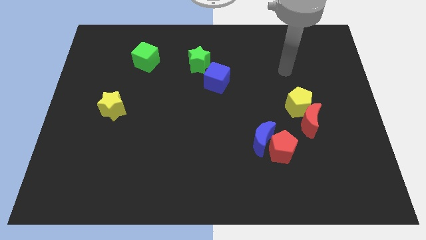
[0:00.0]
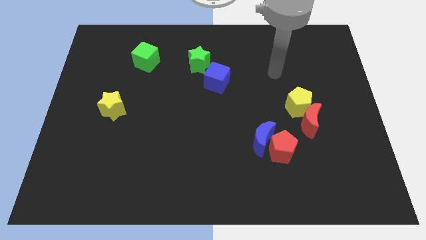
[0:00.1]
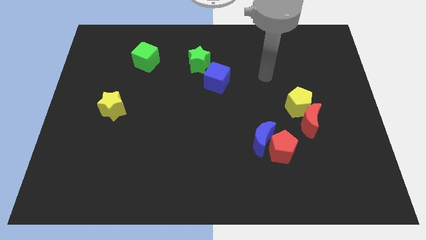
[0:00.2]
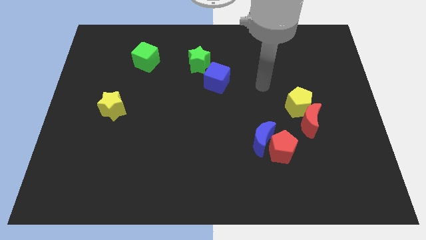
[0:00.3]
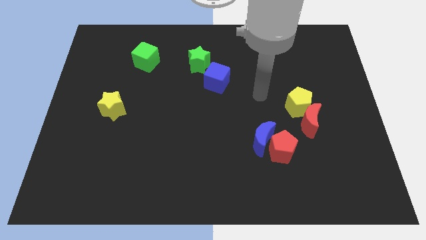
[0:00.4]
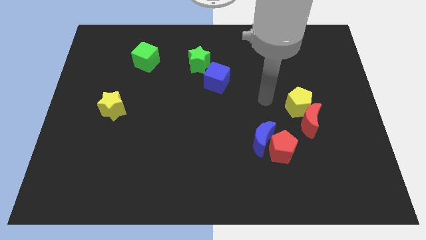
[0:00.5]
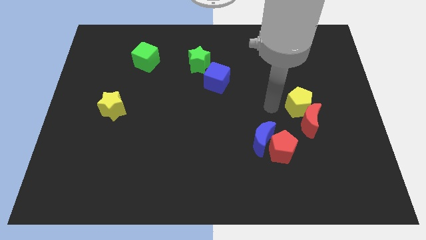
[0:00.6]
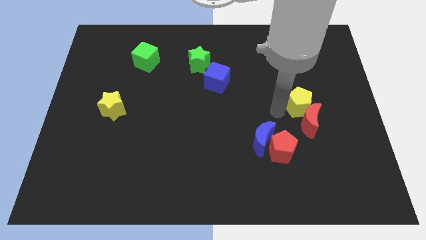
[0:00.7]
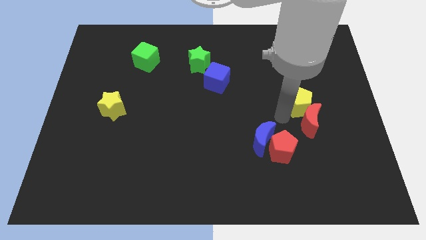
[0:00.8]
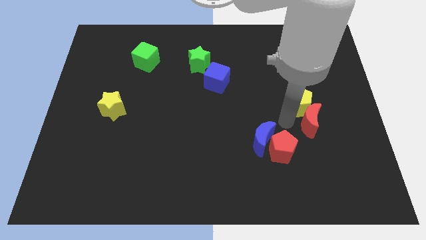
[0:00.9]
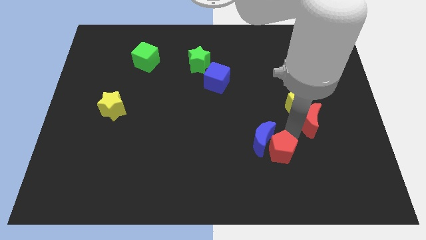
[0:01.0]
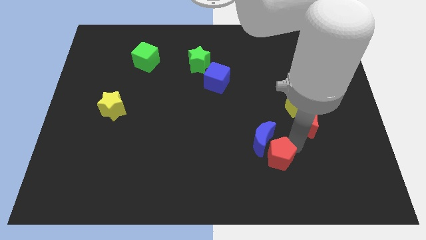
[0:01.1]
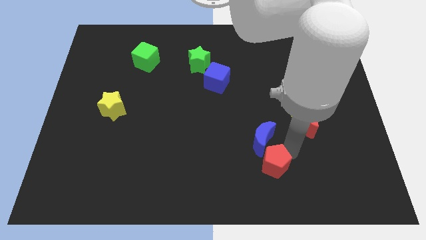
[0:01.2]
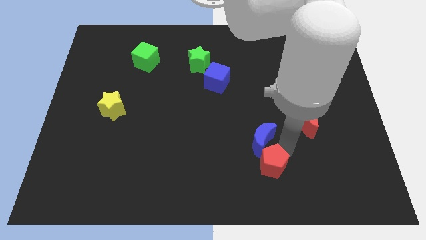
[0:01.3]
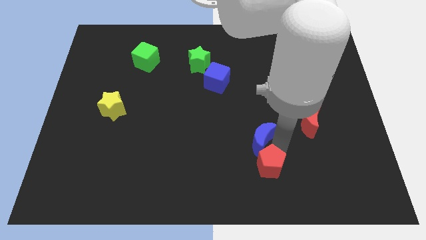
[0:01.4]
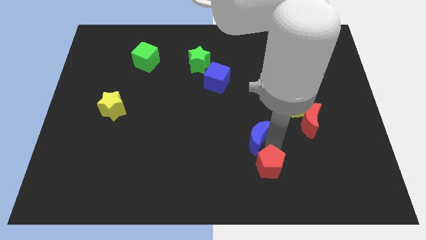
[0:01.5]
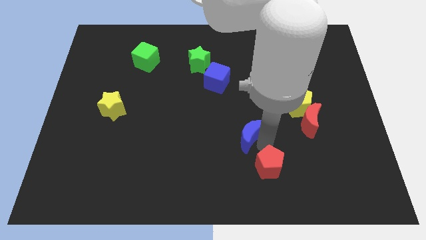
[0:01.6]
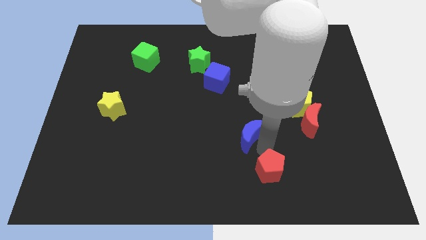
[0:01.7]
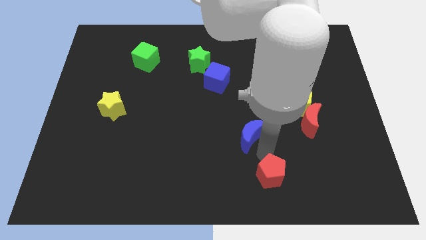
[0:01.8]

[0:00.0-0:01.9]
separate the blue moon from the red pentagon

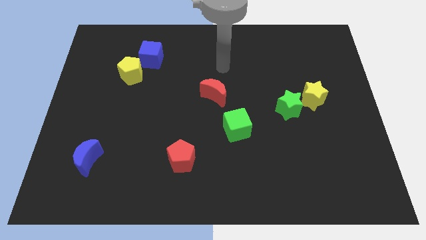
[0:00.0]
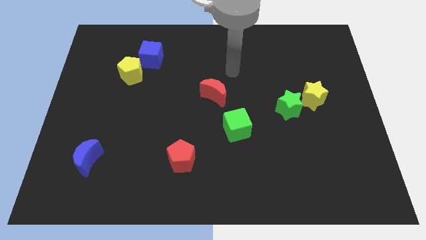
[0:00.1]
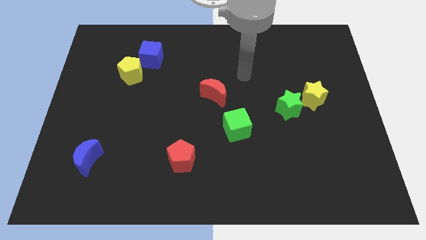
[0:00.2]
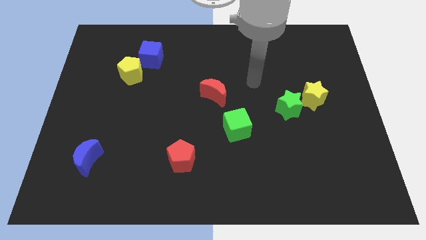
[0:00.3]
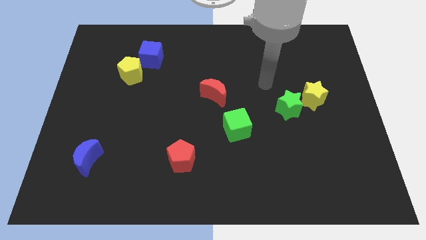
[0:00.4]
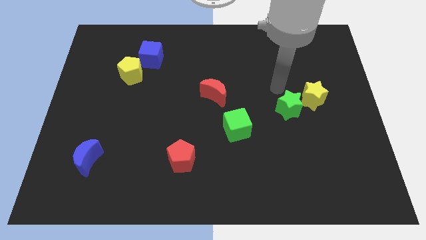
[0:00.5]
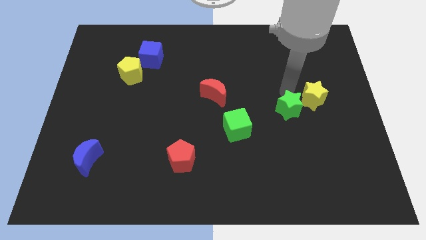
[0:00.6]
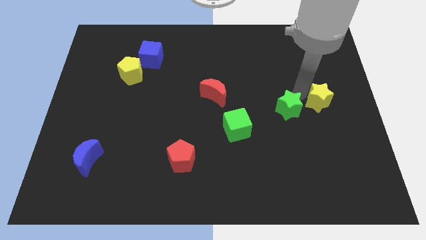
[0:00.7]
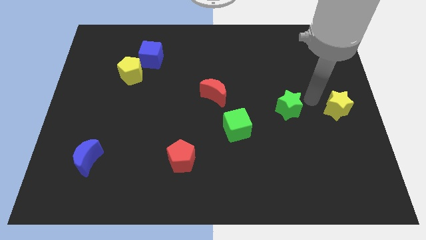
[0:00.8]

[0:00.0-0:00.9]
separate the green star from the yellow star

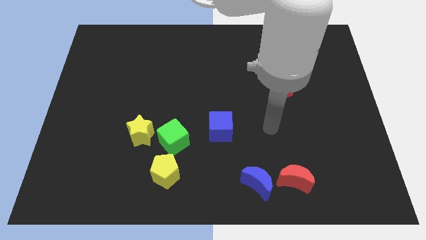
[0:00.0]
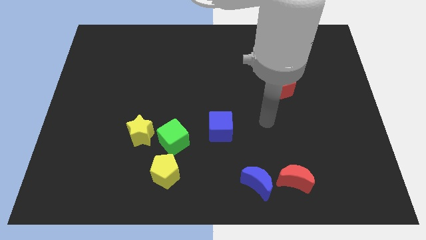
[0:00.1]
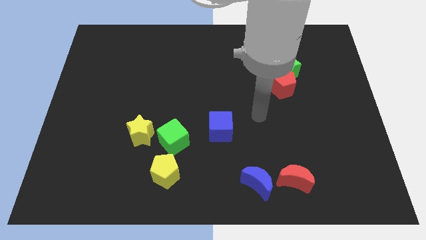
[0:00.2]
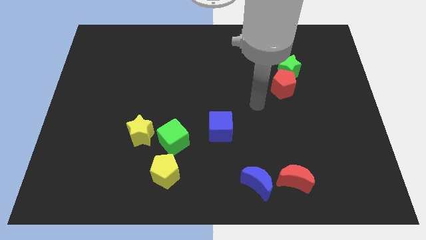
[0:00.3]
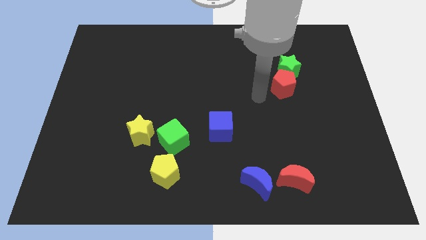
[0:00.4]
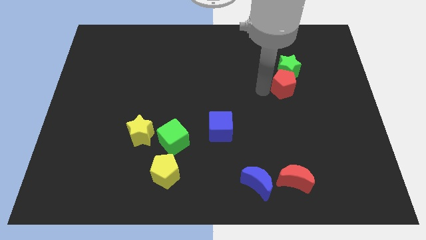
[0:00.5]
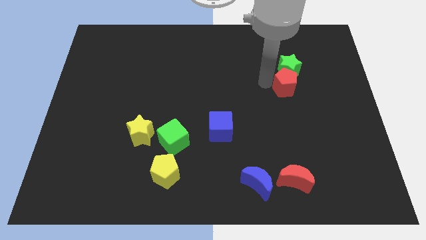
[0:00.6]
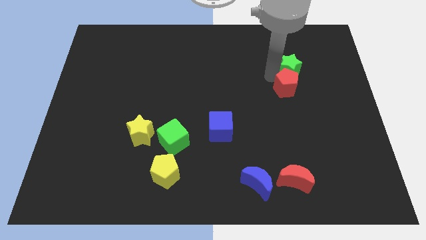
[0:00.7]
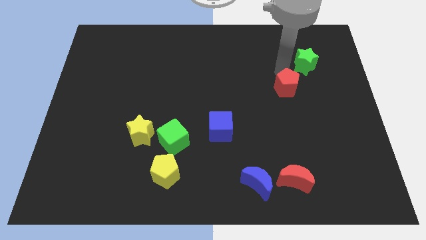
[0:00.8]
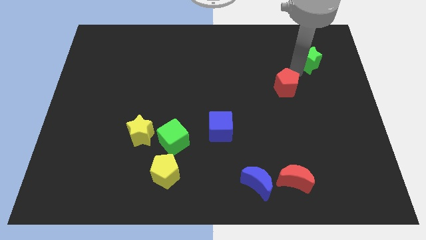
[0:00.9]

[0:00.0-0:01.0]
move the red pentagon away from the green star

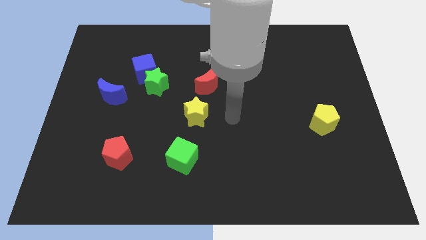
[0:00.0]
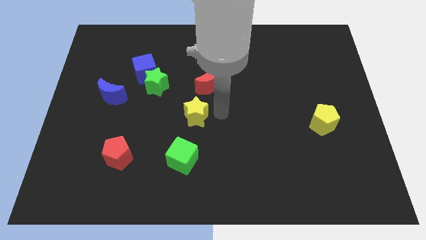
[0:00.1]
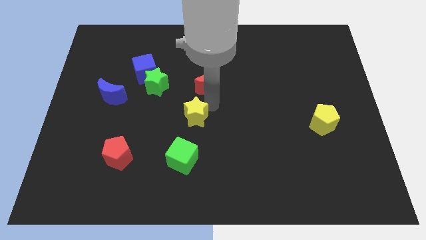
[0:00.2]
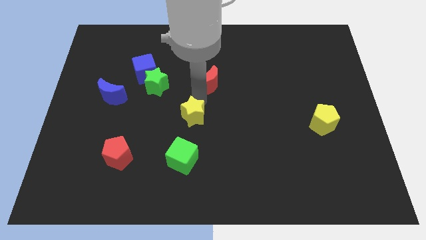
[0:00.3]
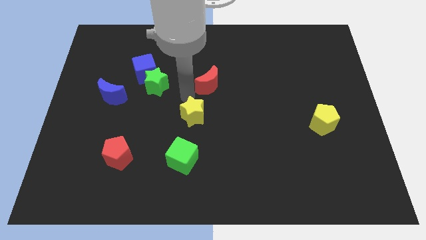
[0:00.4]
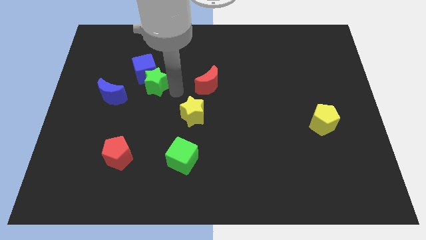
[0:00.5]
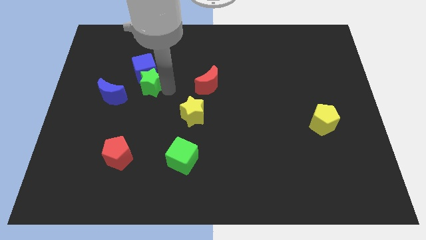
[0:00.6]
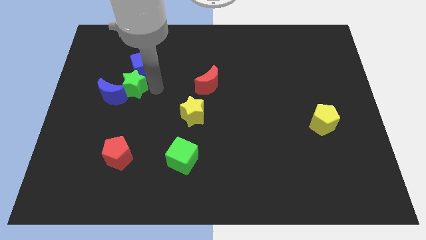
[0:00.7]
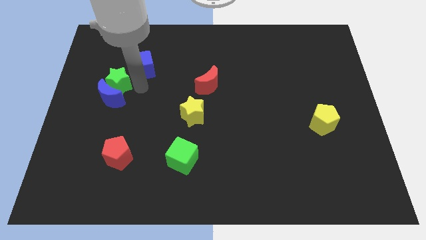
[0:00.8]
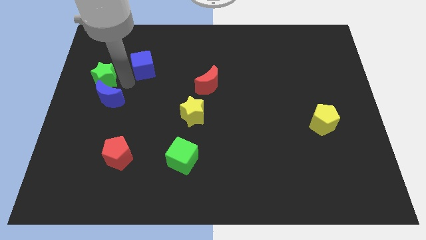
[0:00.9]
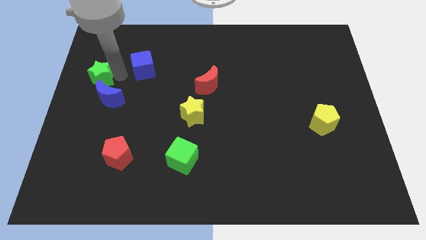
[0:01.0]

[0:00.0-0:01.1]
move the blue cube away from the green star

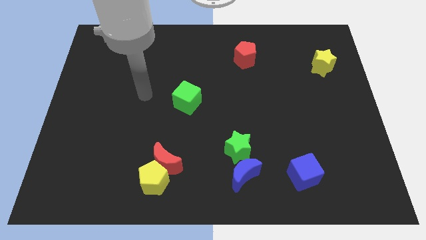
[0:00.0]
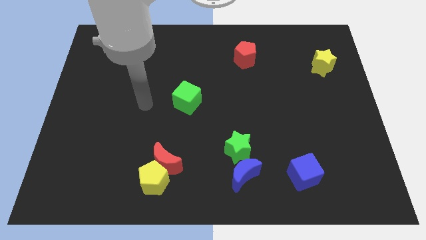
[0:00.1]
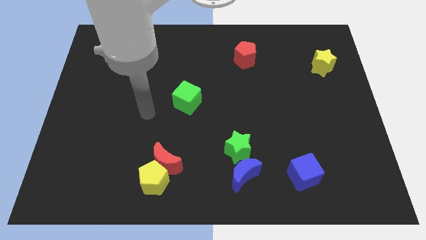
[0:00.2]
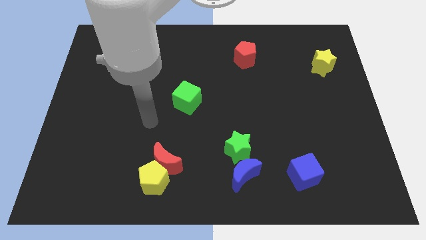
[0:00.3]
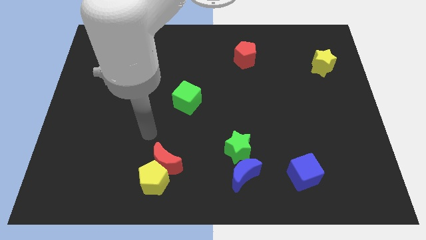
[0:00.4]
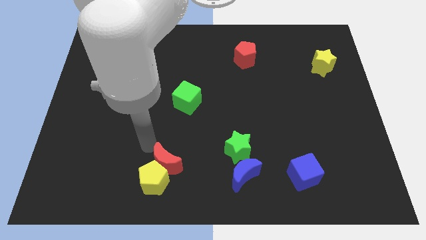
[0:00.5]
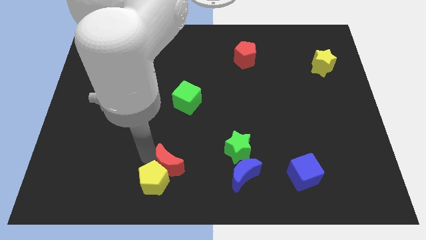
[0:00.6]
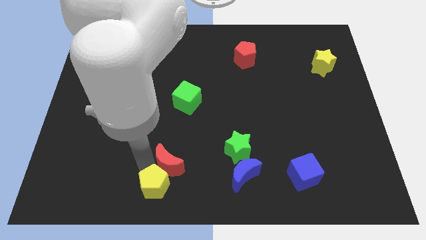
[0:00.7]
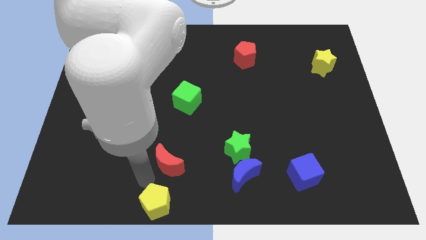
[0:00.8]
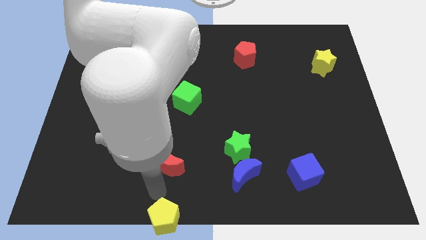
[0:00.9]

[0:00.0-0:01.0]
move the red moon away from the yellow pentagon

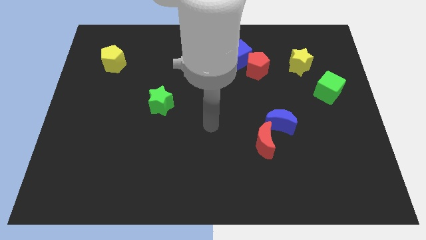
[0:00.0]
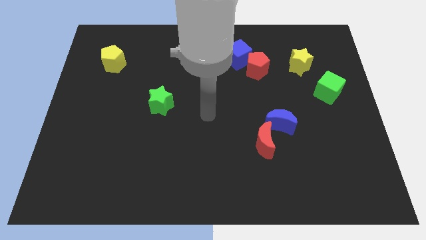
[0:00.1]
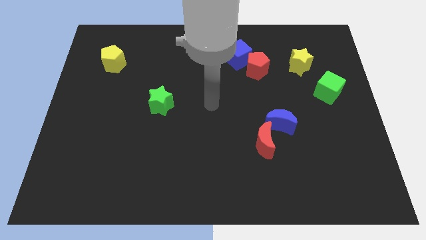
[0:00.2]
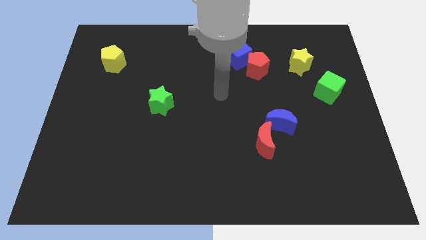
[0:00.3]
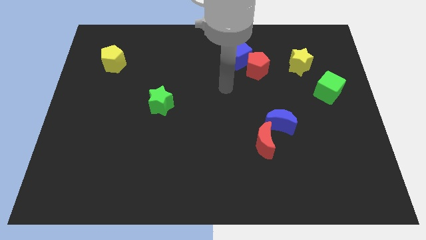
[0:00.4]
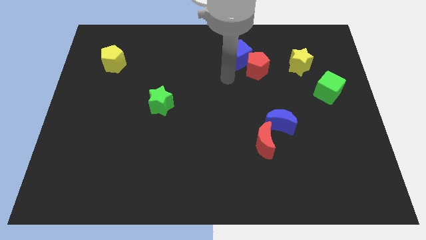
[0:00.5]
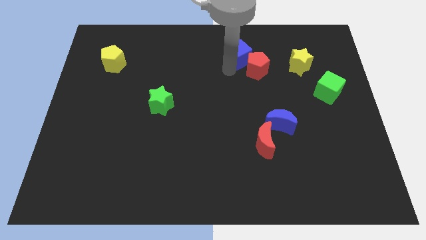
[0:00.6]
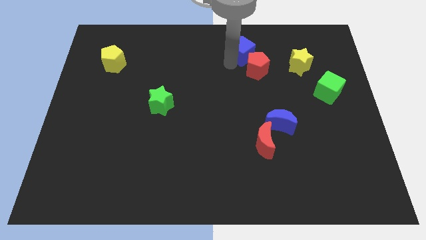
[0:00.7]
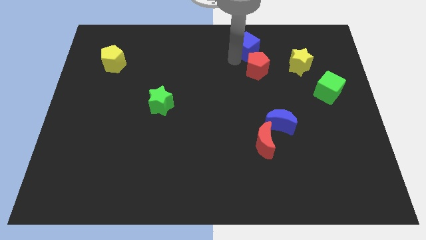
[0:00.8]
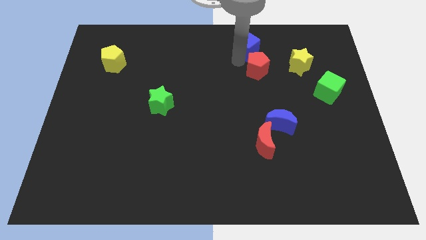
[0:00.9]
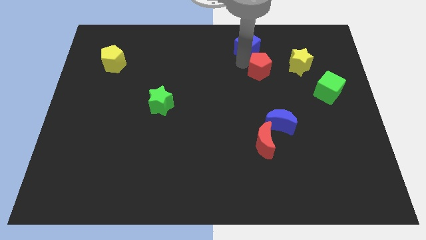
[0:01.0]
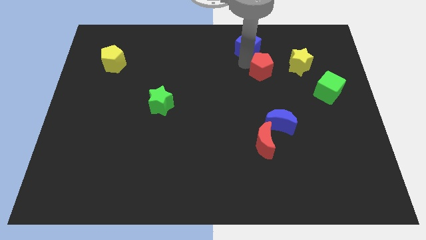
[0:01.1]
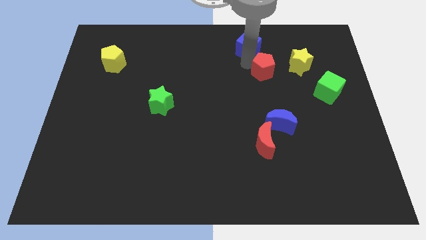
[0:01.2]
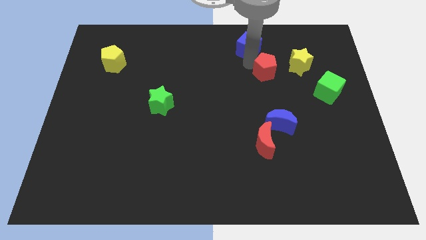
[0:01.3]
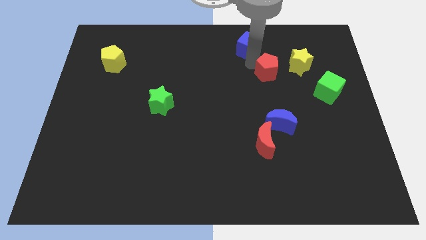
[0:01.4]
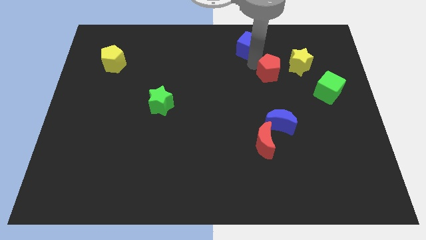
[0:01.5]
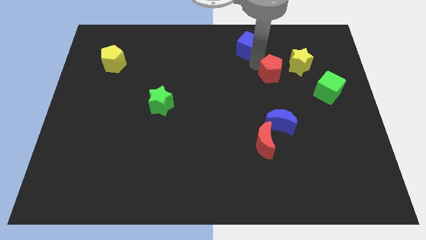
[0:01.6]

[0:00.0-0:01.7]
move the red pentagon away from the blue cube

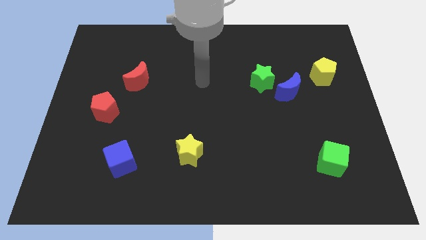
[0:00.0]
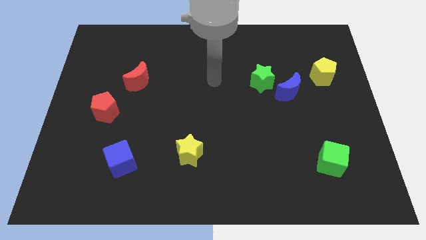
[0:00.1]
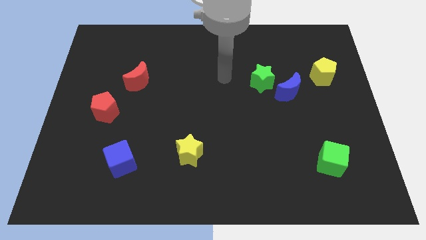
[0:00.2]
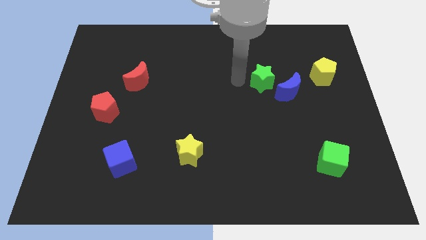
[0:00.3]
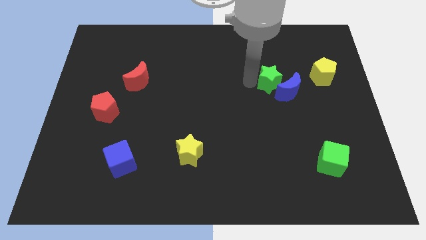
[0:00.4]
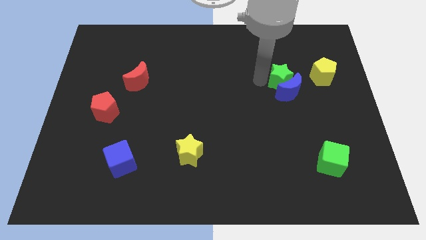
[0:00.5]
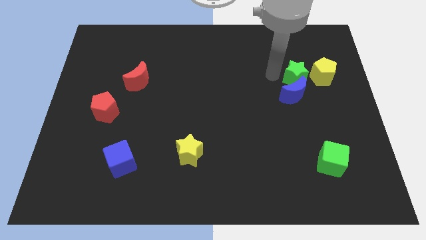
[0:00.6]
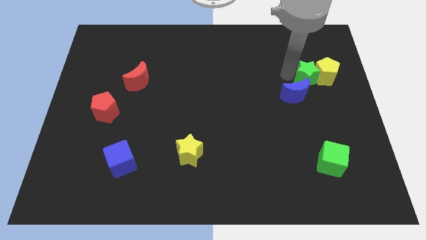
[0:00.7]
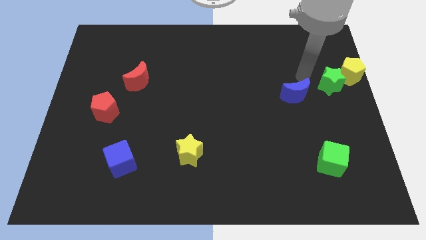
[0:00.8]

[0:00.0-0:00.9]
move the blue moon away from the green star

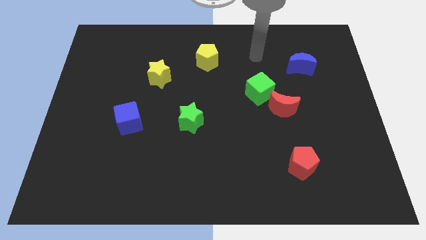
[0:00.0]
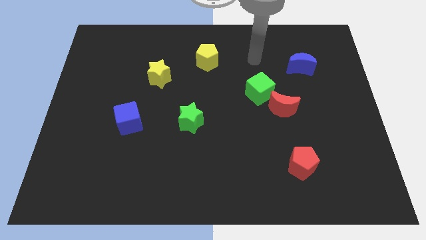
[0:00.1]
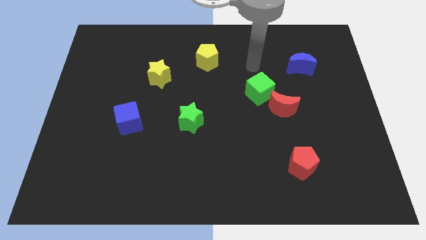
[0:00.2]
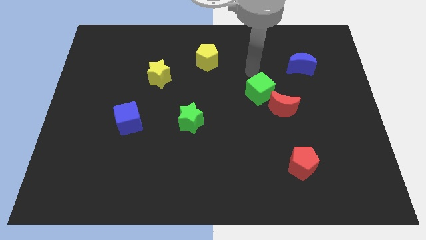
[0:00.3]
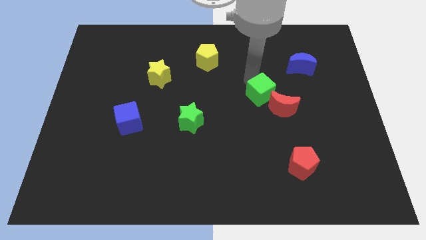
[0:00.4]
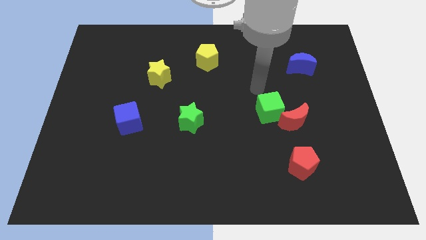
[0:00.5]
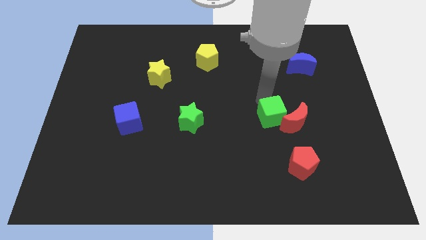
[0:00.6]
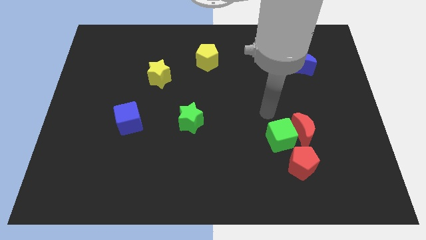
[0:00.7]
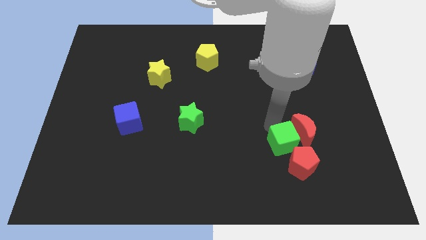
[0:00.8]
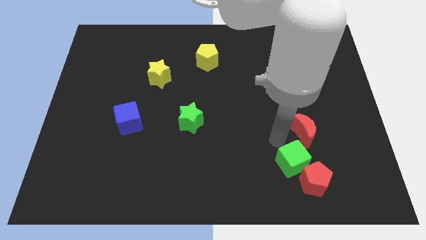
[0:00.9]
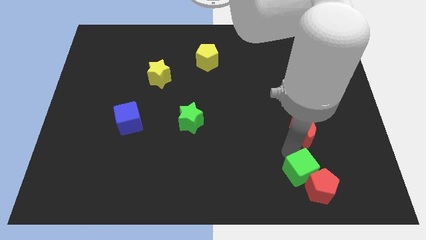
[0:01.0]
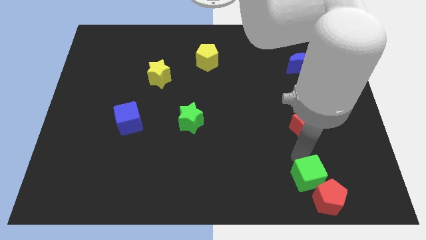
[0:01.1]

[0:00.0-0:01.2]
move the red moon away from the green cube
